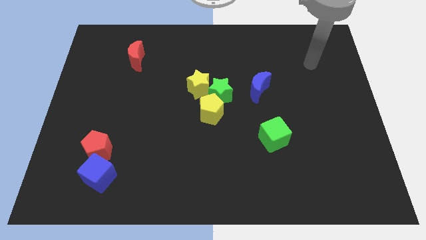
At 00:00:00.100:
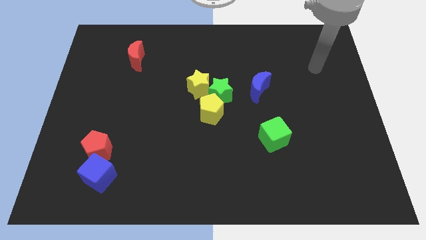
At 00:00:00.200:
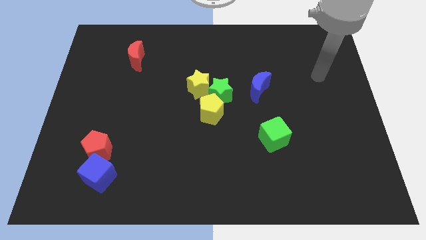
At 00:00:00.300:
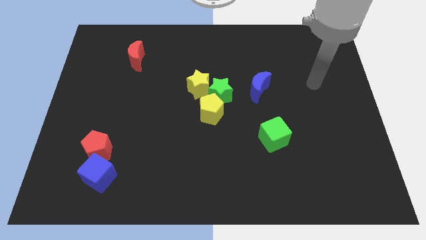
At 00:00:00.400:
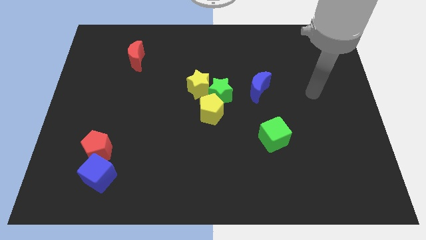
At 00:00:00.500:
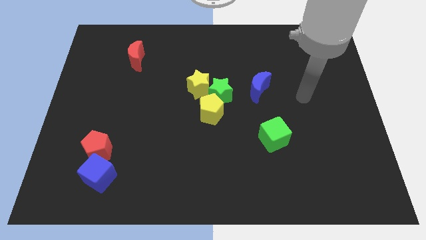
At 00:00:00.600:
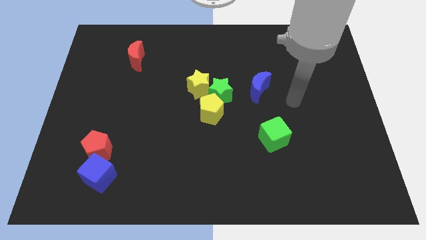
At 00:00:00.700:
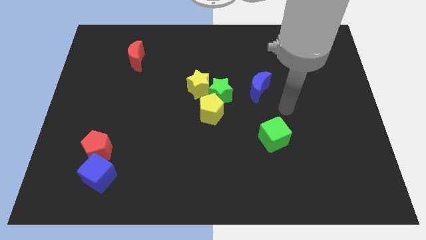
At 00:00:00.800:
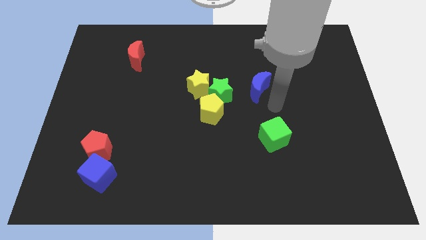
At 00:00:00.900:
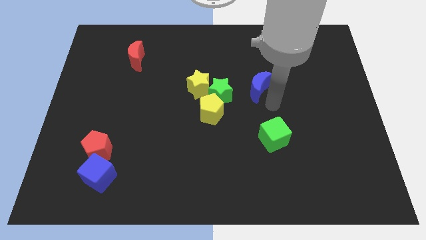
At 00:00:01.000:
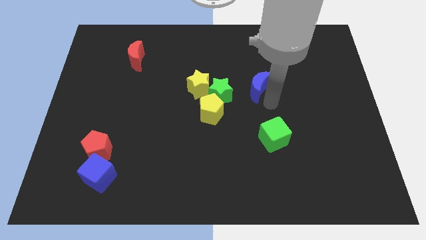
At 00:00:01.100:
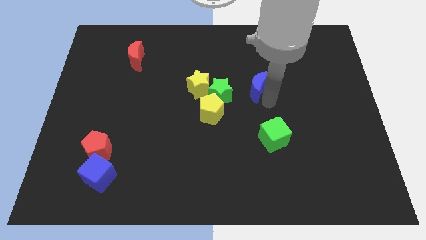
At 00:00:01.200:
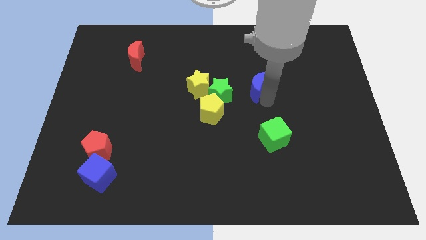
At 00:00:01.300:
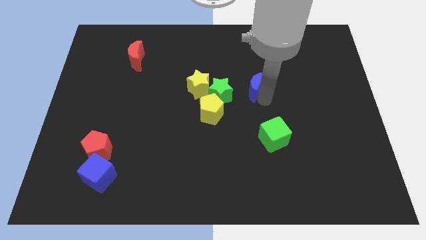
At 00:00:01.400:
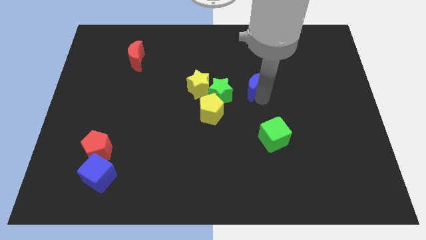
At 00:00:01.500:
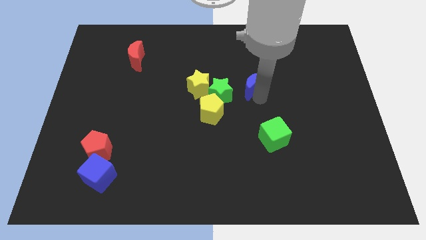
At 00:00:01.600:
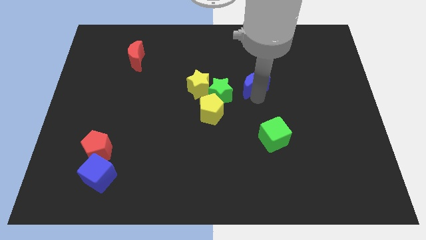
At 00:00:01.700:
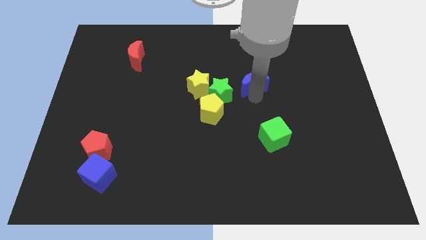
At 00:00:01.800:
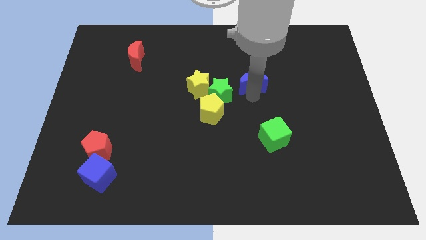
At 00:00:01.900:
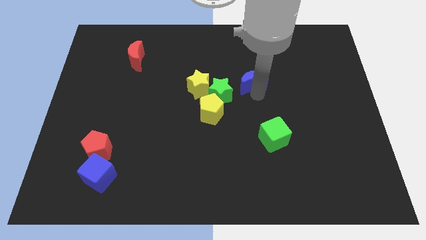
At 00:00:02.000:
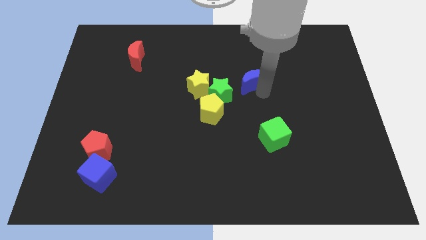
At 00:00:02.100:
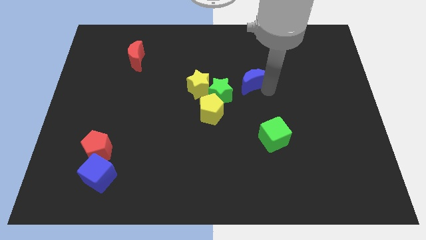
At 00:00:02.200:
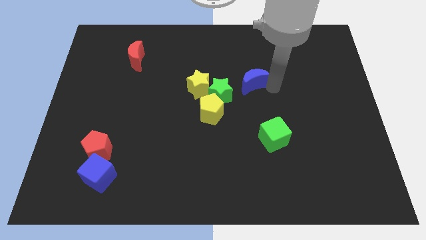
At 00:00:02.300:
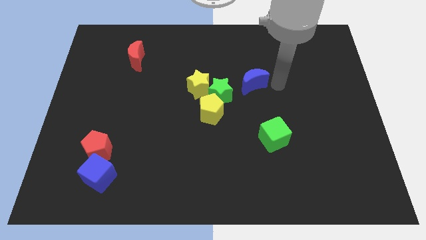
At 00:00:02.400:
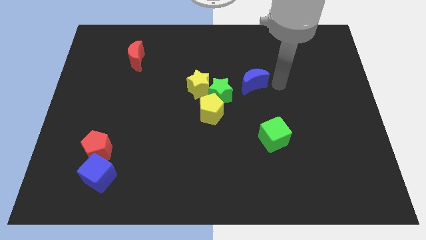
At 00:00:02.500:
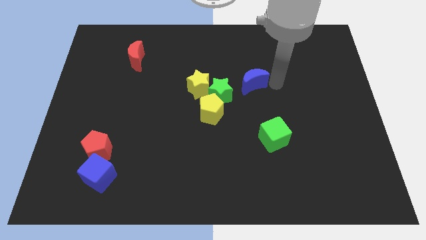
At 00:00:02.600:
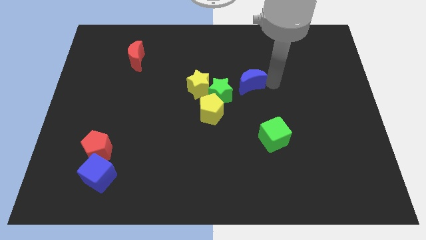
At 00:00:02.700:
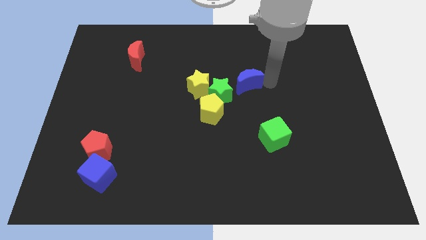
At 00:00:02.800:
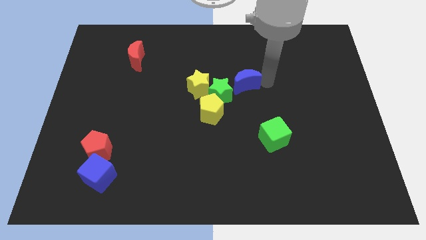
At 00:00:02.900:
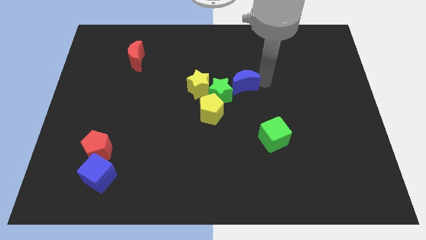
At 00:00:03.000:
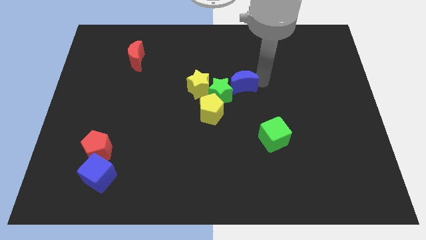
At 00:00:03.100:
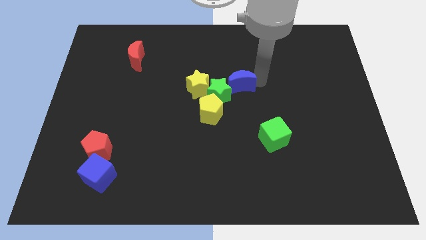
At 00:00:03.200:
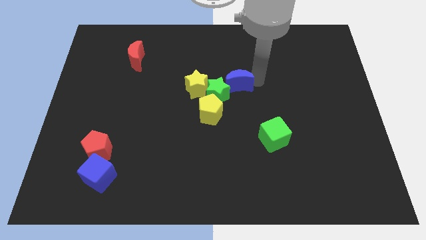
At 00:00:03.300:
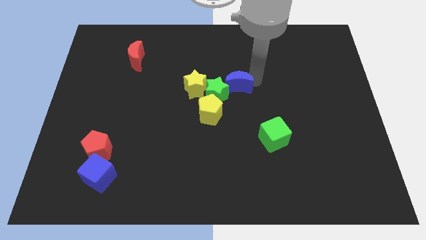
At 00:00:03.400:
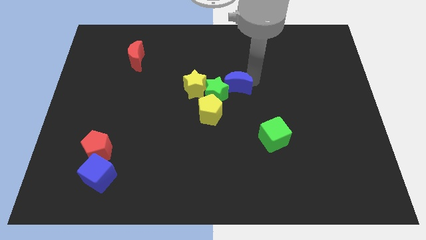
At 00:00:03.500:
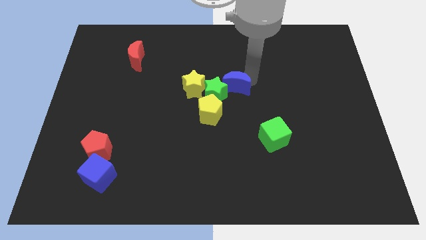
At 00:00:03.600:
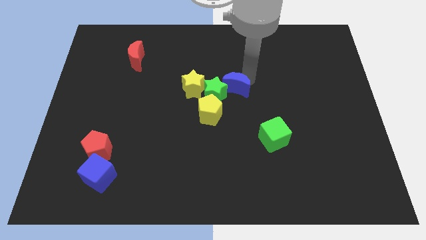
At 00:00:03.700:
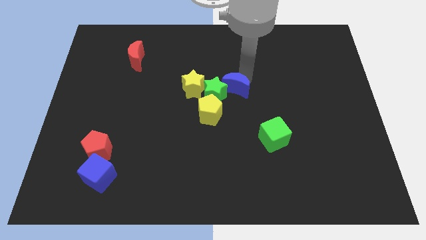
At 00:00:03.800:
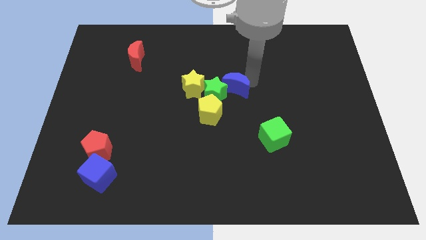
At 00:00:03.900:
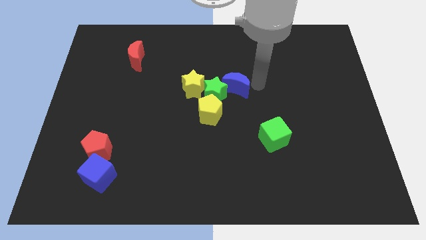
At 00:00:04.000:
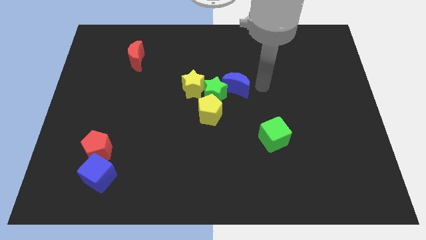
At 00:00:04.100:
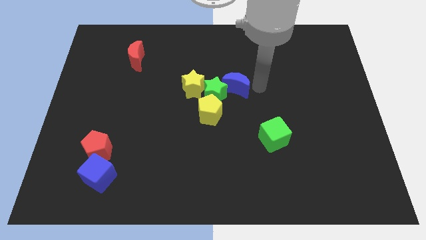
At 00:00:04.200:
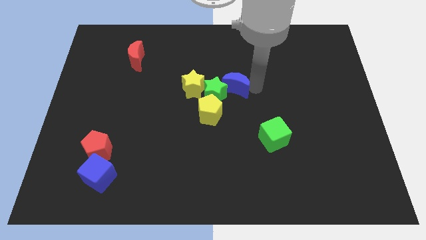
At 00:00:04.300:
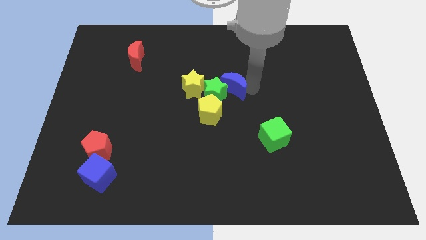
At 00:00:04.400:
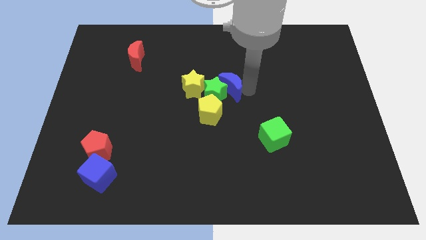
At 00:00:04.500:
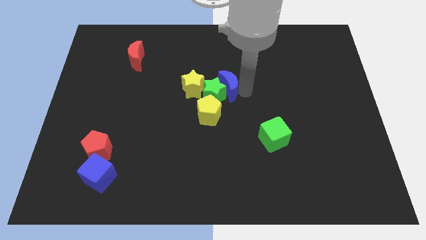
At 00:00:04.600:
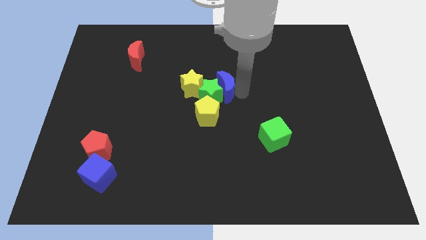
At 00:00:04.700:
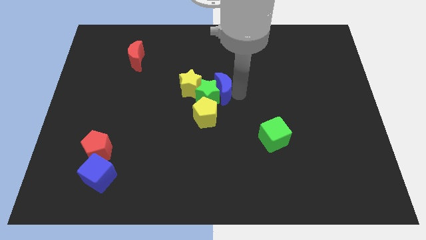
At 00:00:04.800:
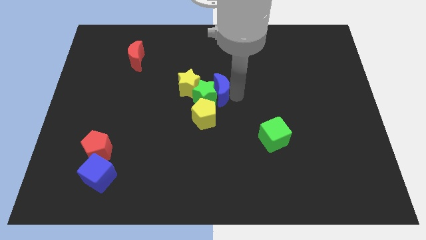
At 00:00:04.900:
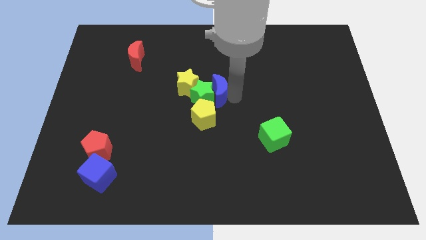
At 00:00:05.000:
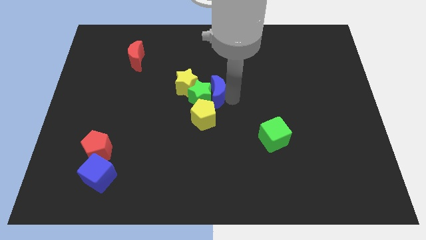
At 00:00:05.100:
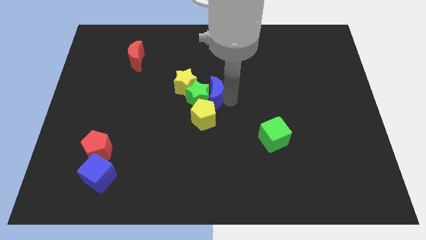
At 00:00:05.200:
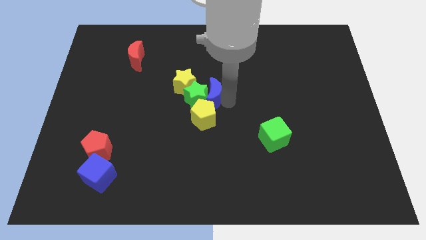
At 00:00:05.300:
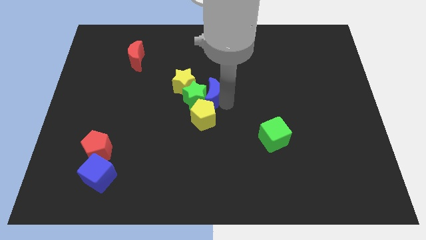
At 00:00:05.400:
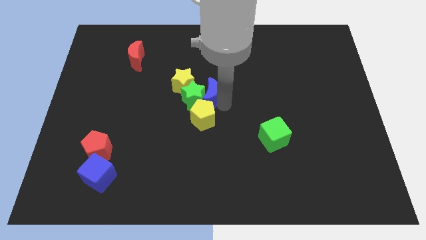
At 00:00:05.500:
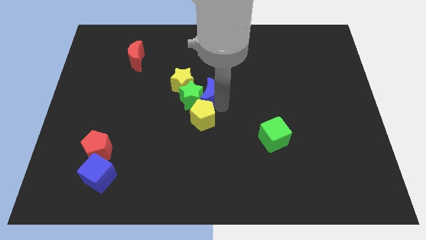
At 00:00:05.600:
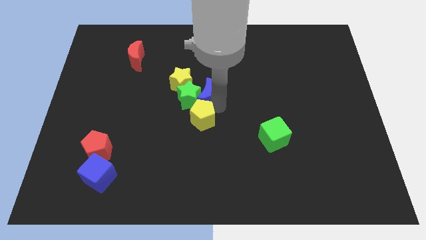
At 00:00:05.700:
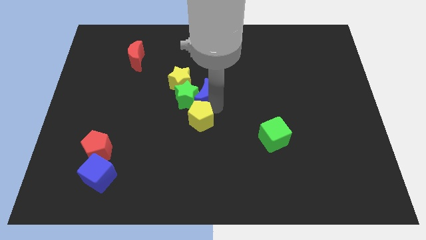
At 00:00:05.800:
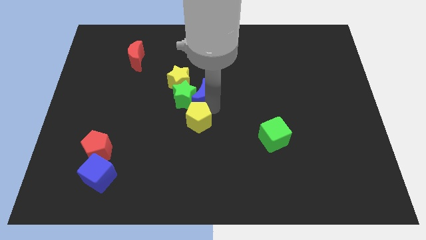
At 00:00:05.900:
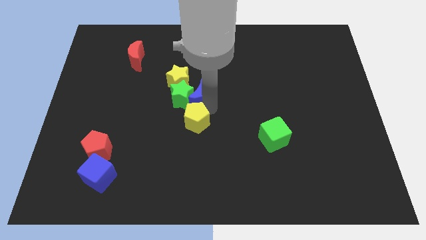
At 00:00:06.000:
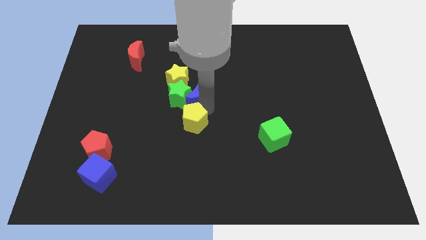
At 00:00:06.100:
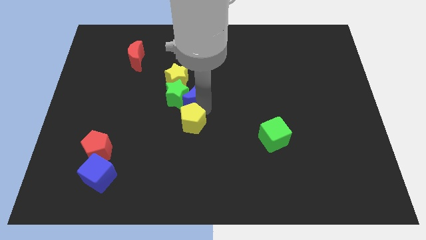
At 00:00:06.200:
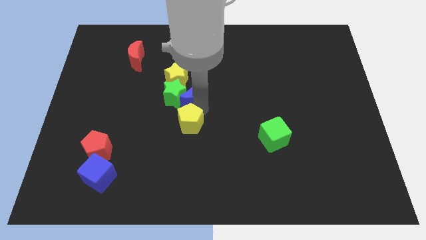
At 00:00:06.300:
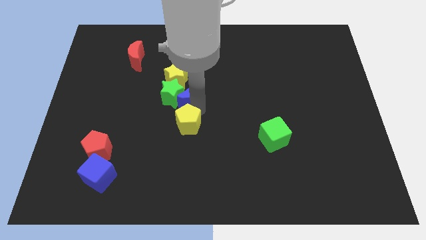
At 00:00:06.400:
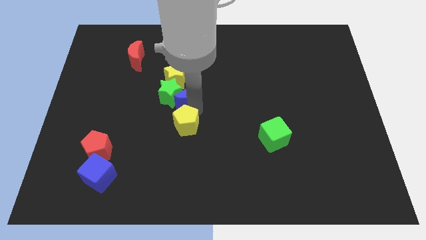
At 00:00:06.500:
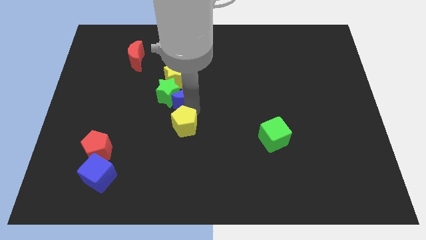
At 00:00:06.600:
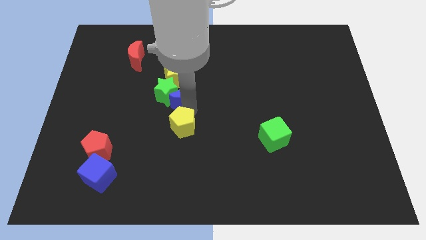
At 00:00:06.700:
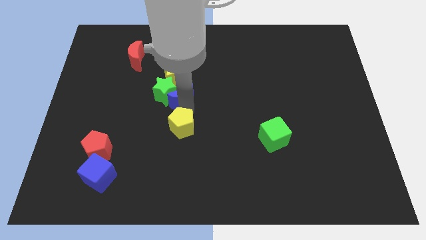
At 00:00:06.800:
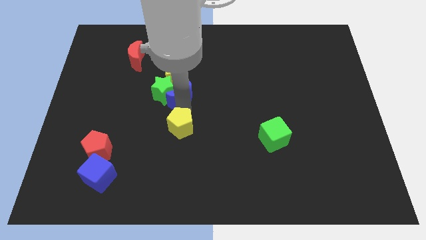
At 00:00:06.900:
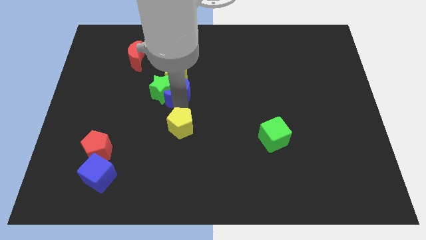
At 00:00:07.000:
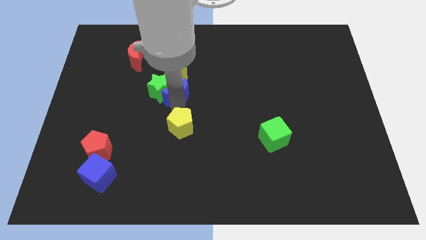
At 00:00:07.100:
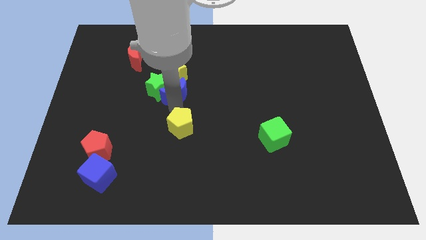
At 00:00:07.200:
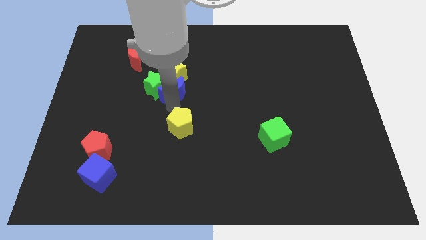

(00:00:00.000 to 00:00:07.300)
slide the blue moon next to the yellow star

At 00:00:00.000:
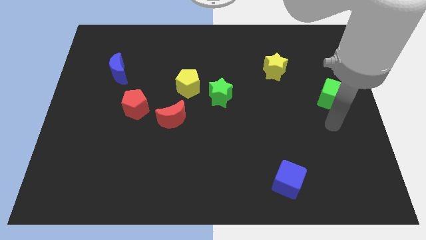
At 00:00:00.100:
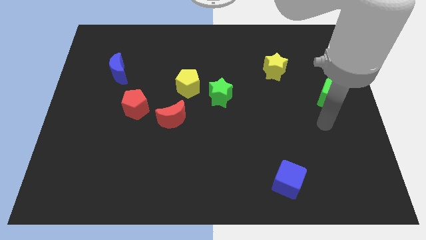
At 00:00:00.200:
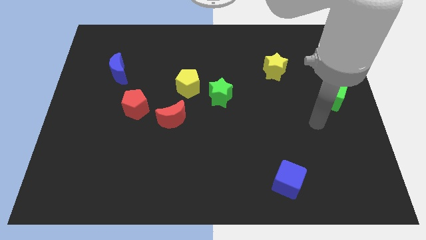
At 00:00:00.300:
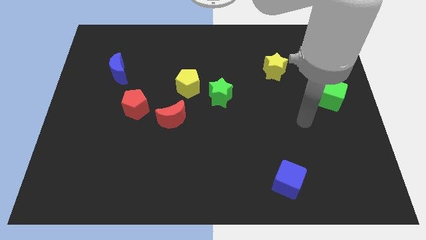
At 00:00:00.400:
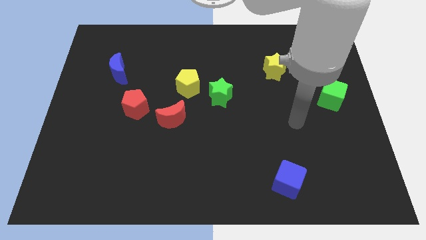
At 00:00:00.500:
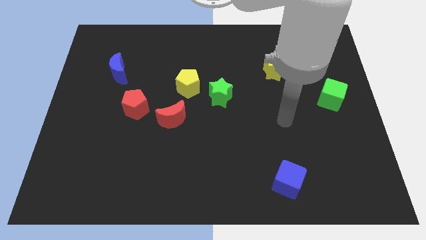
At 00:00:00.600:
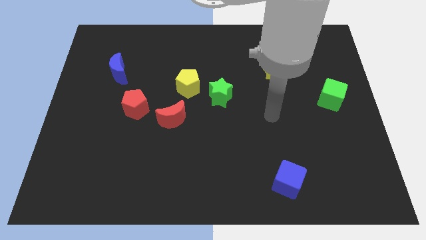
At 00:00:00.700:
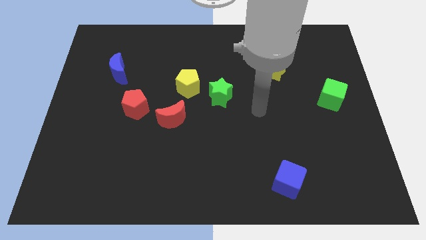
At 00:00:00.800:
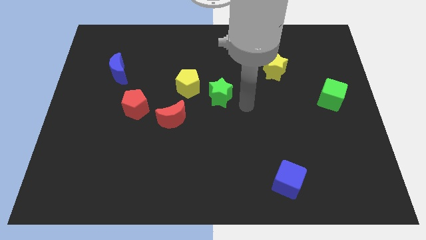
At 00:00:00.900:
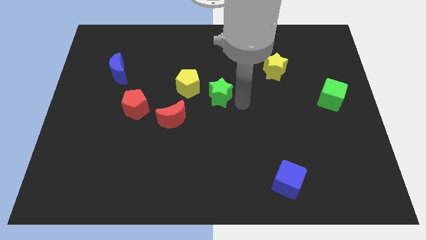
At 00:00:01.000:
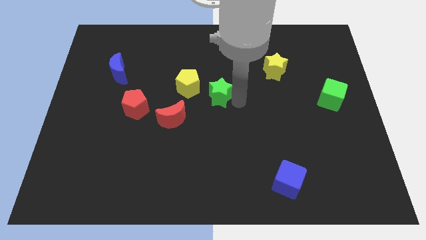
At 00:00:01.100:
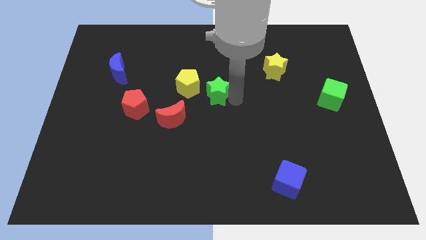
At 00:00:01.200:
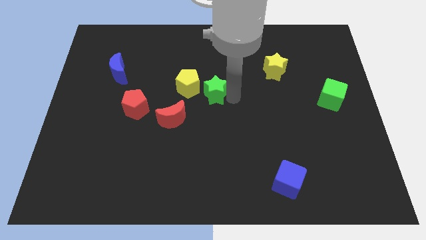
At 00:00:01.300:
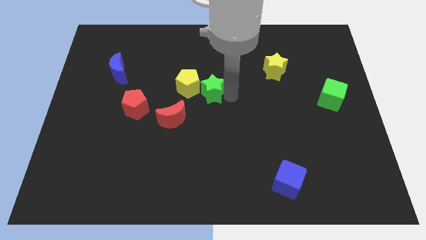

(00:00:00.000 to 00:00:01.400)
slide the green star towards the yellow pentagon
